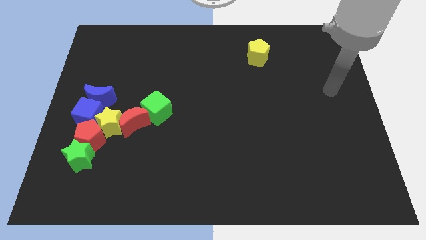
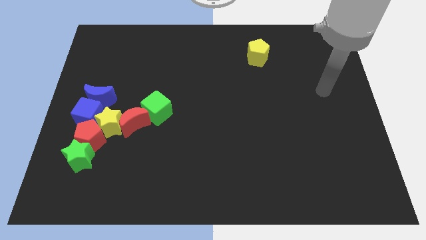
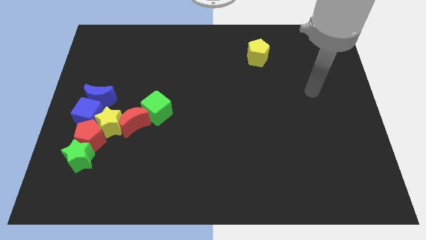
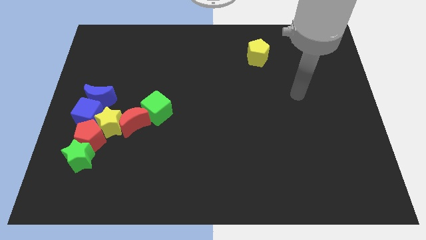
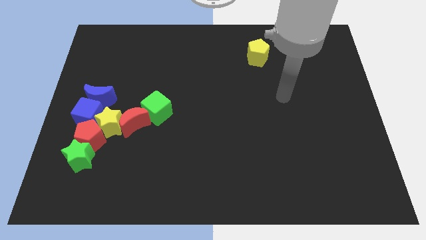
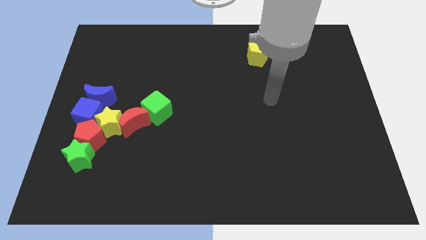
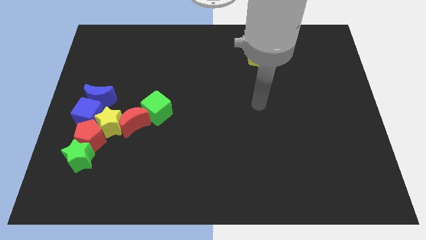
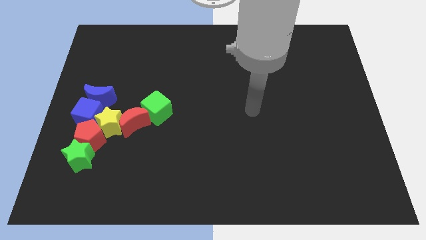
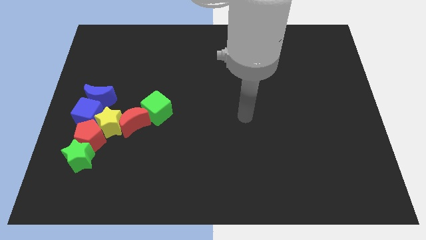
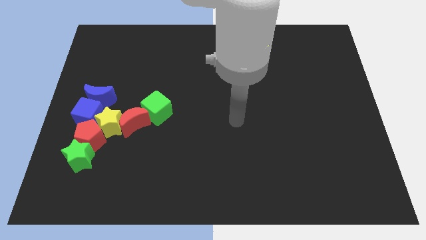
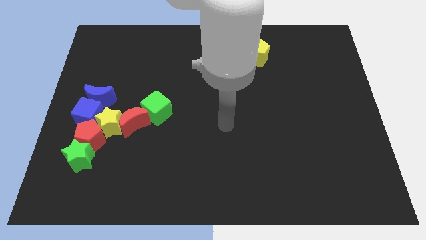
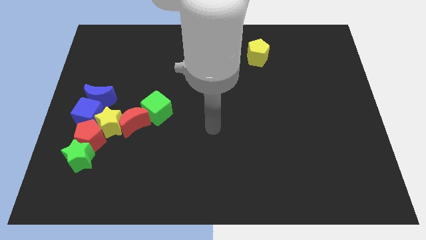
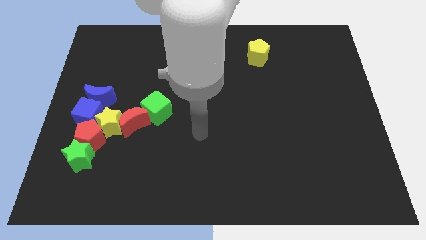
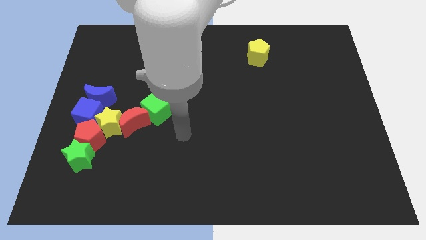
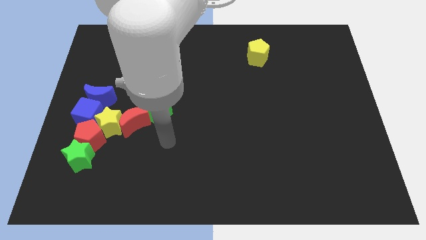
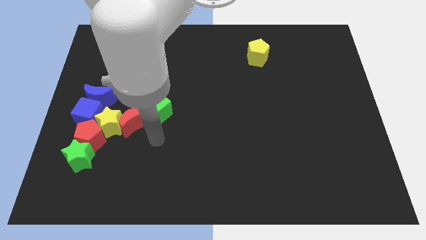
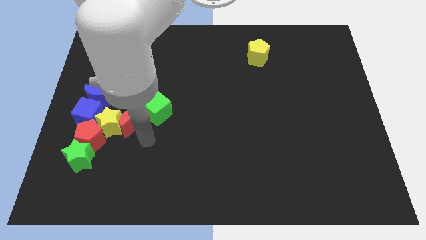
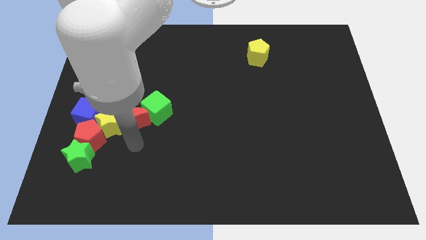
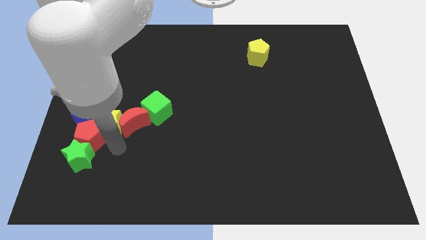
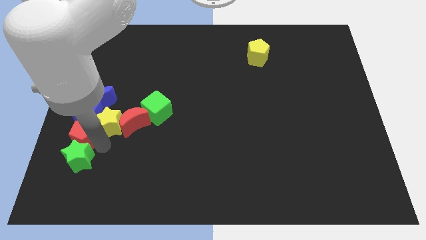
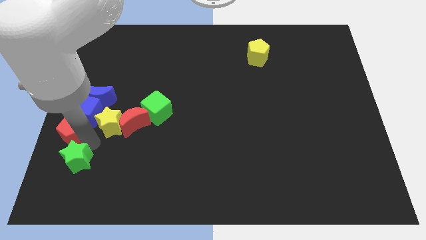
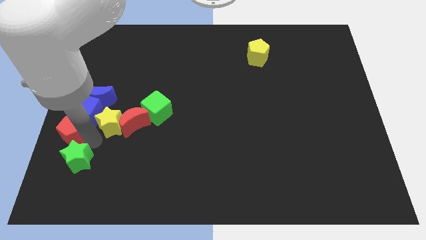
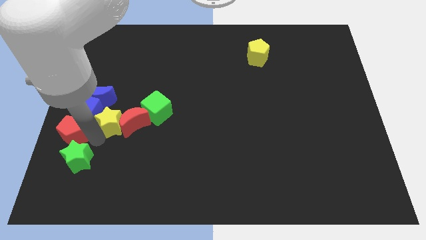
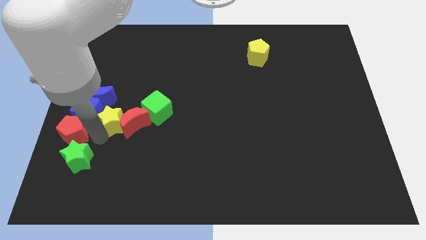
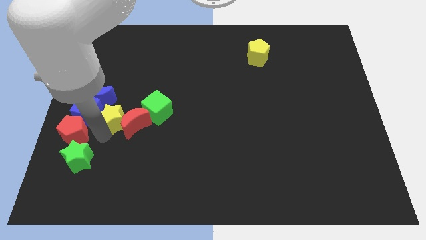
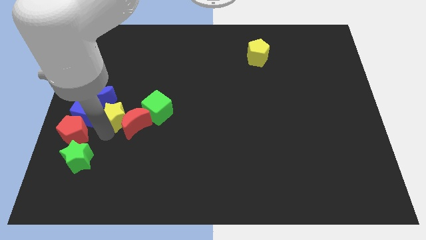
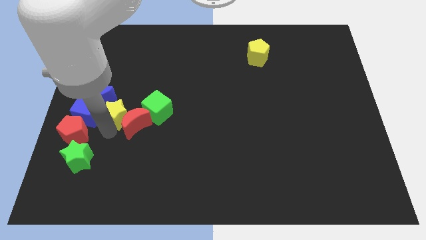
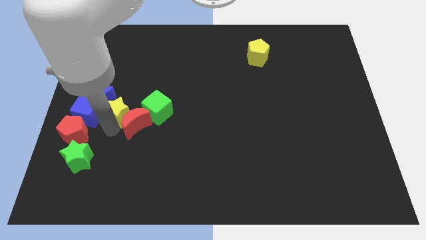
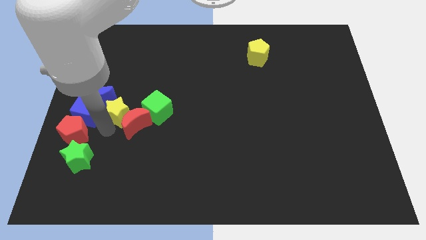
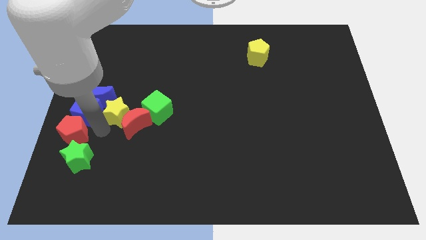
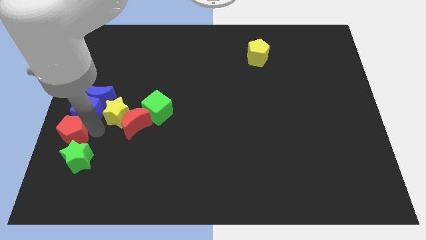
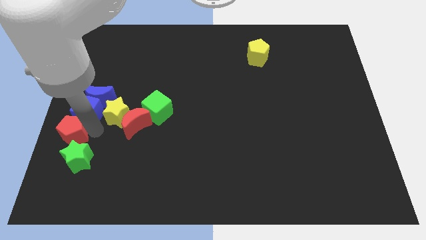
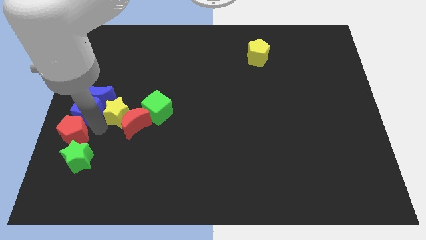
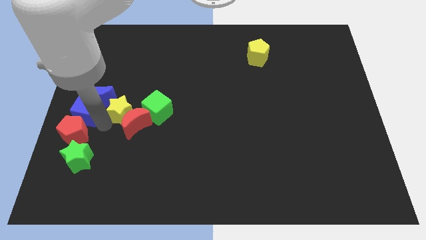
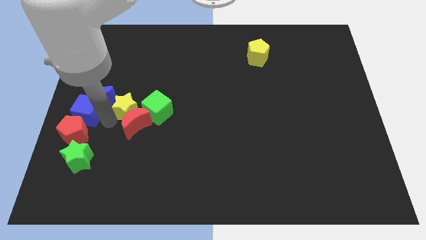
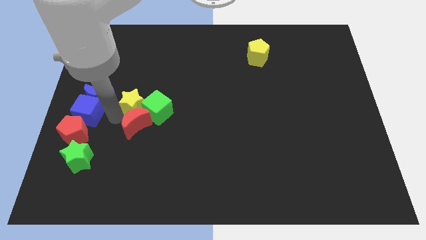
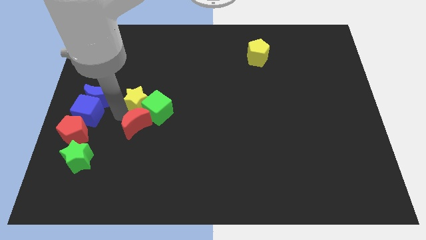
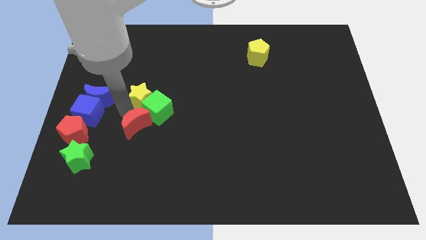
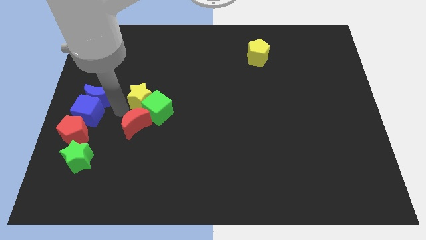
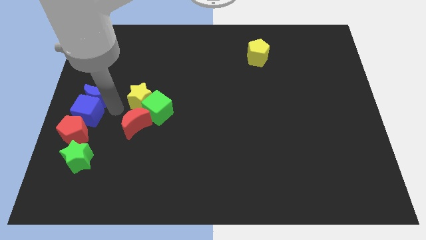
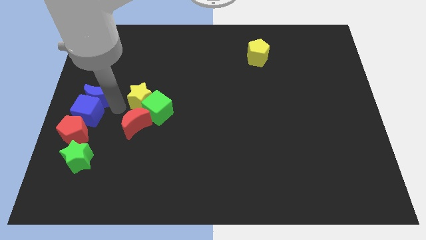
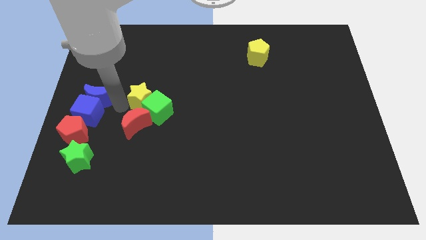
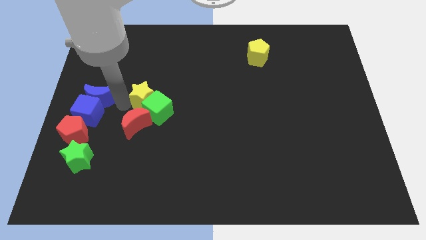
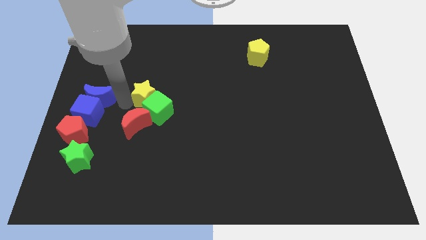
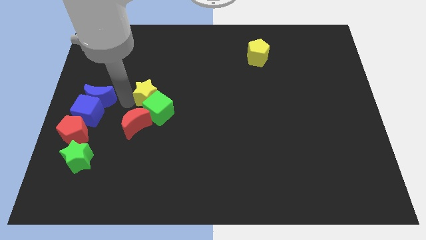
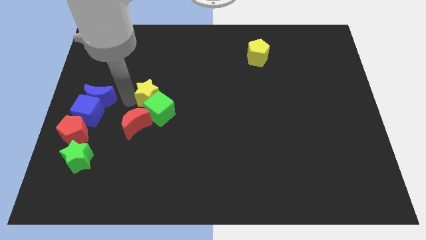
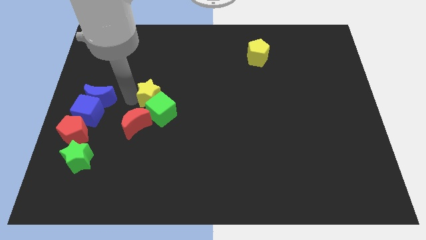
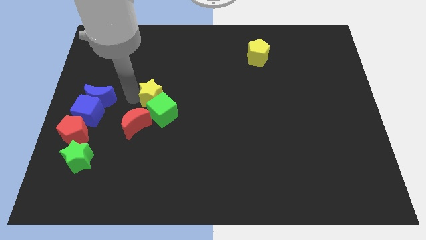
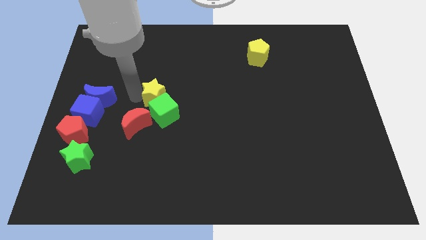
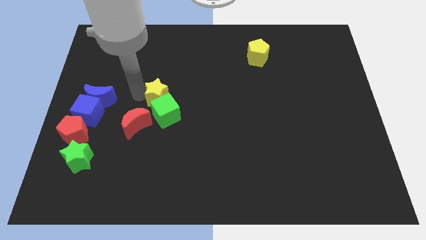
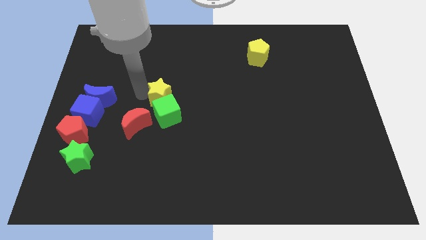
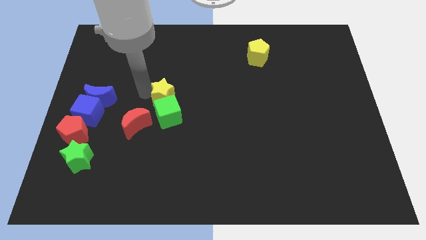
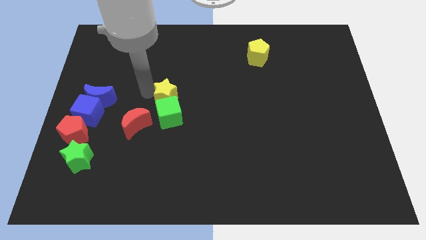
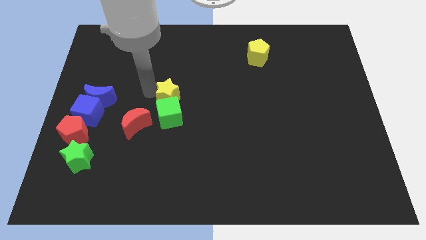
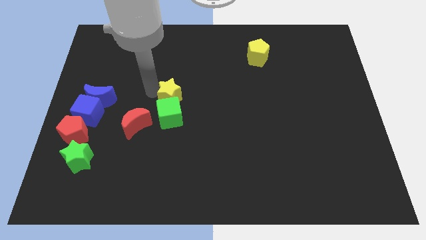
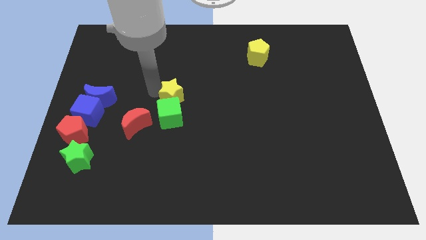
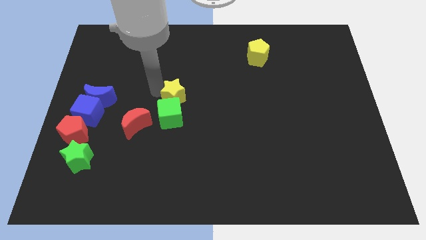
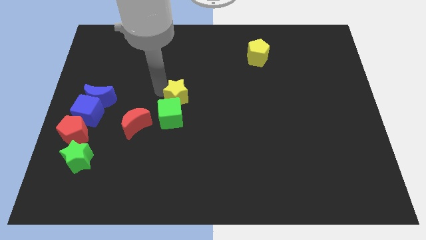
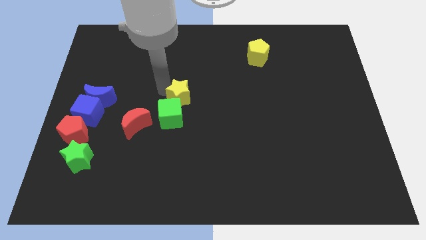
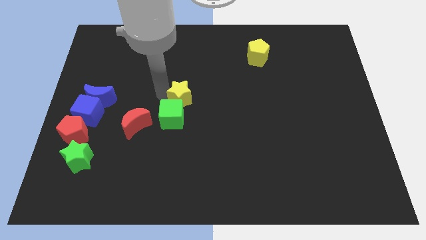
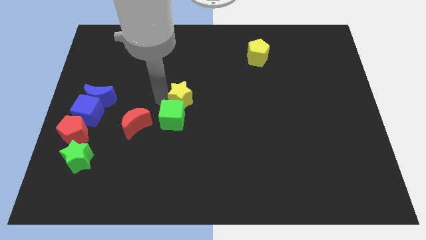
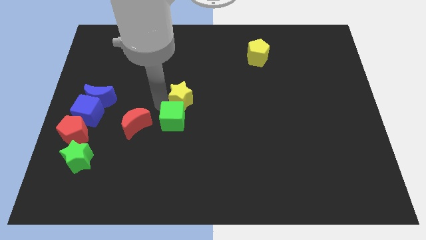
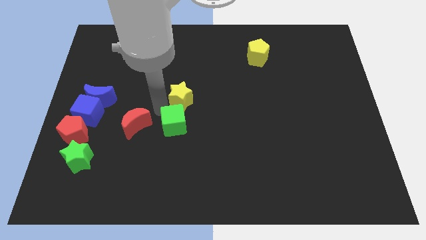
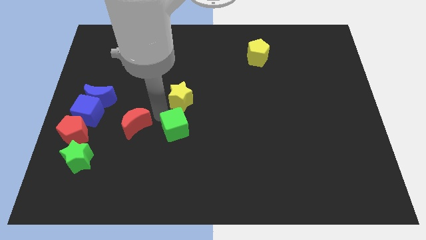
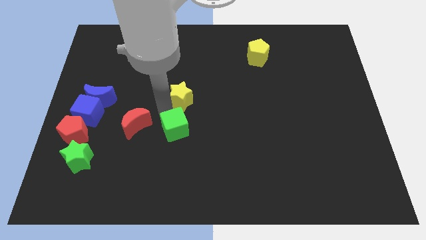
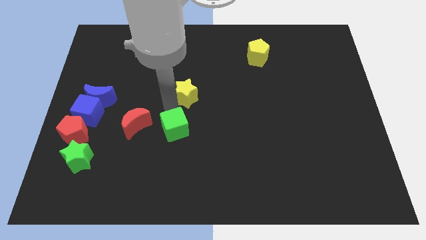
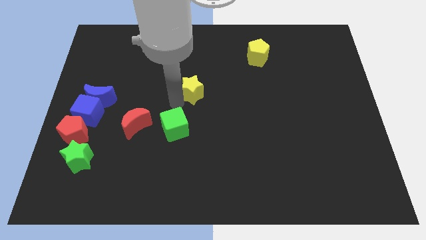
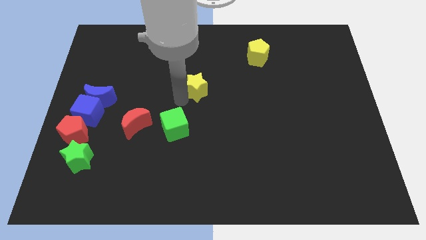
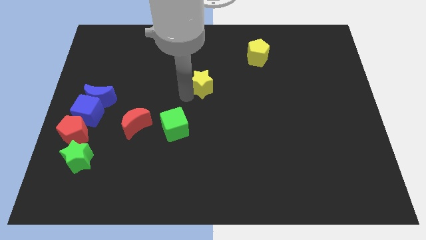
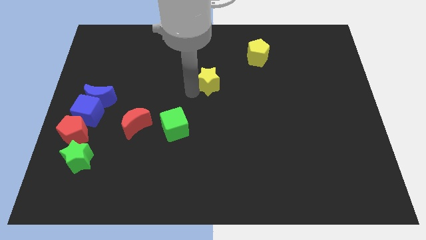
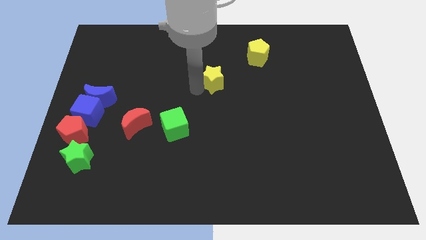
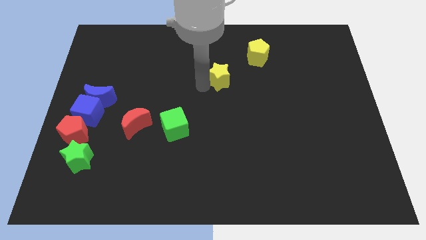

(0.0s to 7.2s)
put the yellow star to the bottom left side of the yellow pentagon
